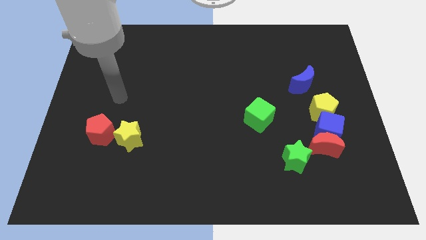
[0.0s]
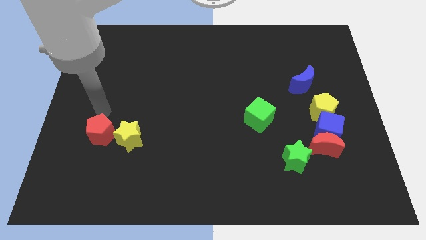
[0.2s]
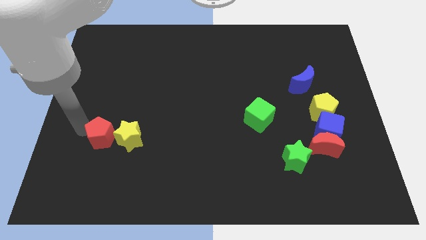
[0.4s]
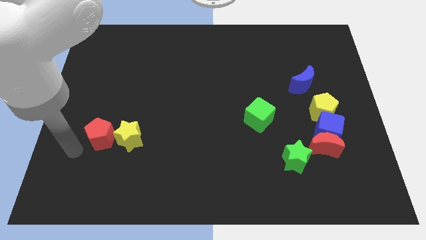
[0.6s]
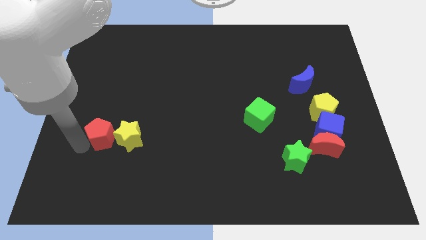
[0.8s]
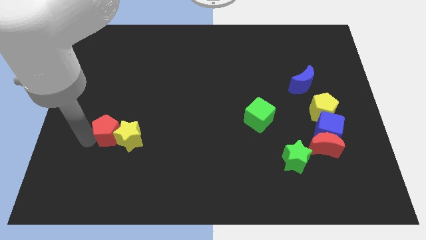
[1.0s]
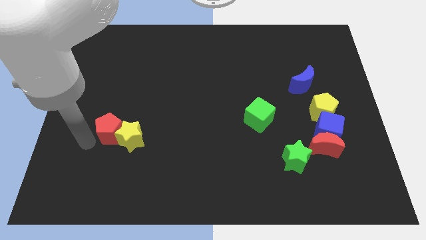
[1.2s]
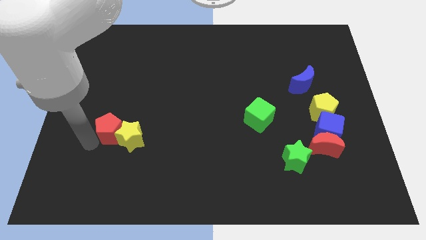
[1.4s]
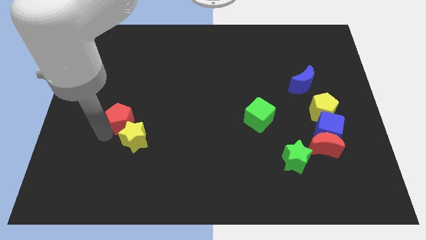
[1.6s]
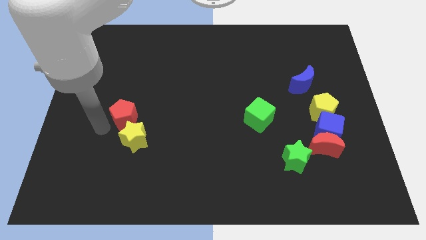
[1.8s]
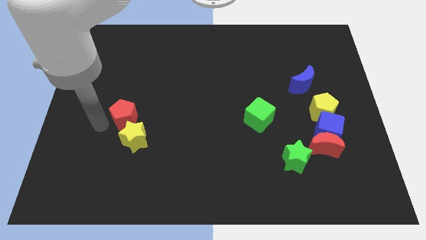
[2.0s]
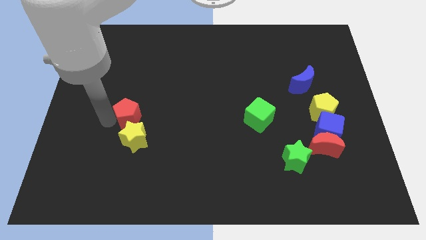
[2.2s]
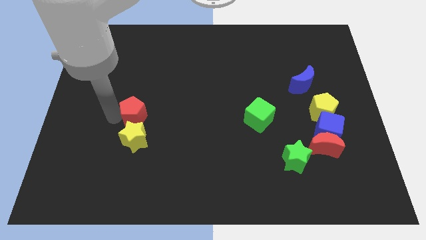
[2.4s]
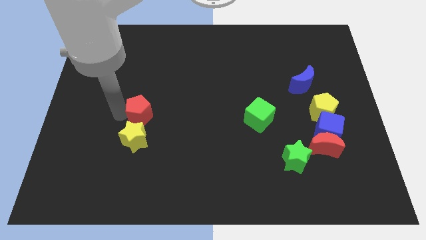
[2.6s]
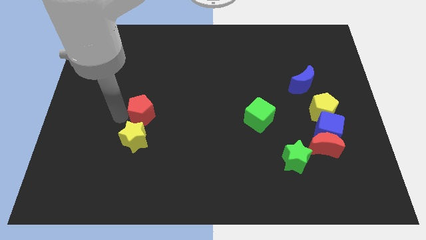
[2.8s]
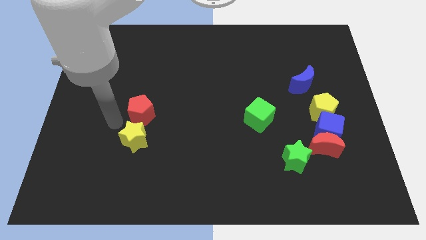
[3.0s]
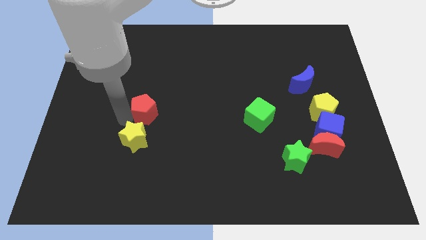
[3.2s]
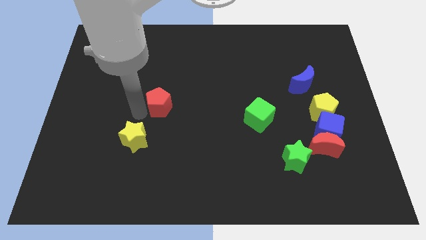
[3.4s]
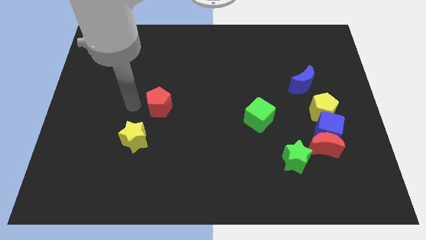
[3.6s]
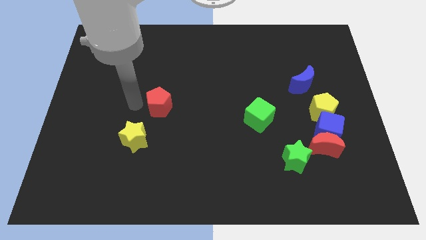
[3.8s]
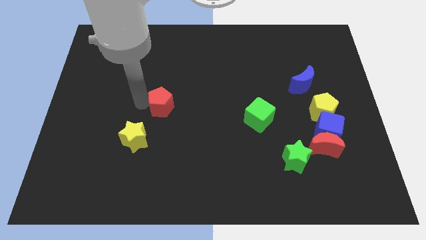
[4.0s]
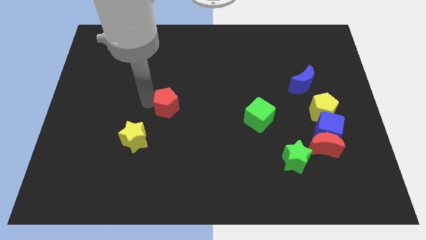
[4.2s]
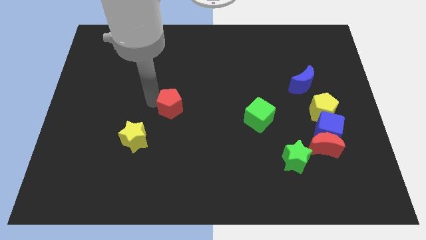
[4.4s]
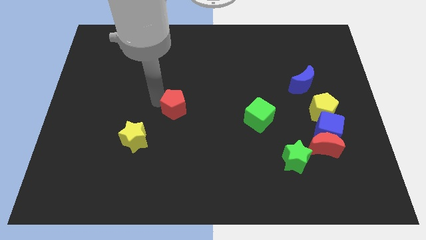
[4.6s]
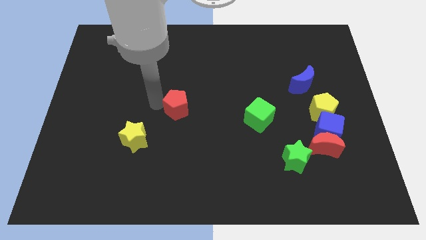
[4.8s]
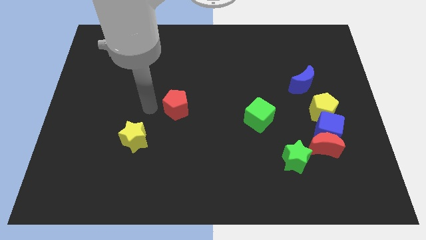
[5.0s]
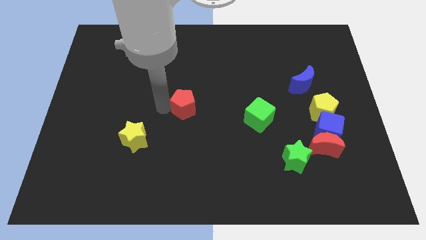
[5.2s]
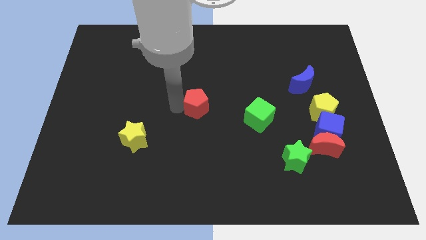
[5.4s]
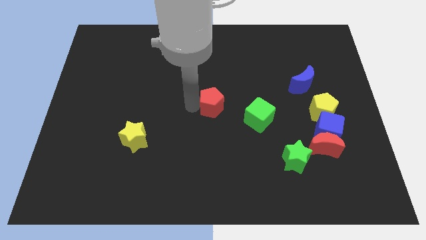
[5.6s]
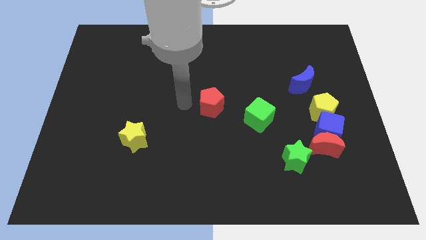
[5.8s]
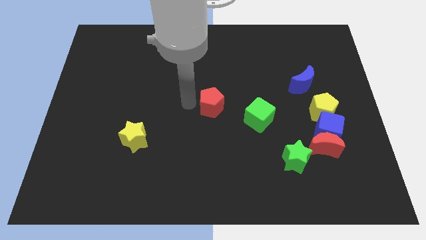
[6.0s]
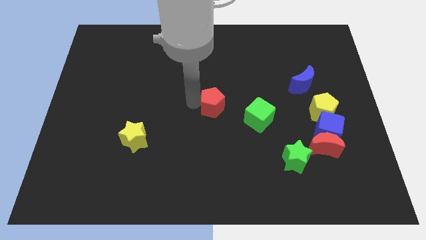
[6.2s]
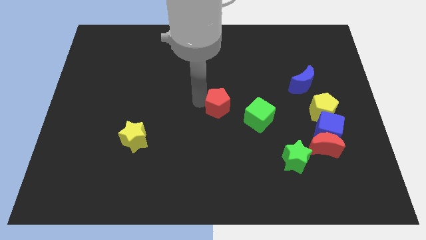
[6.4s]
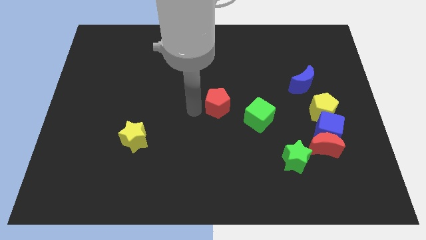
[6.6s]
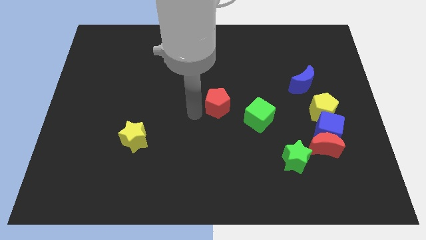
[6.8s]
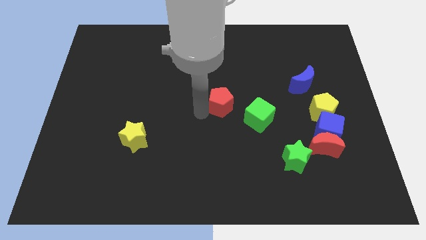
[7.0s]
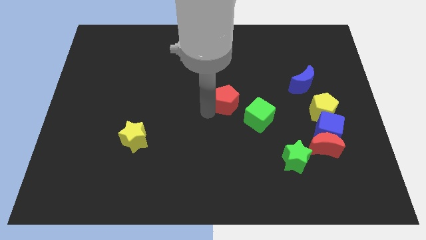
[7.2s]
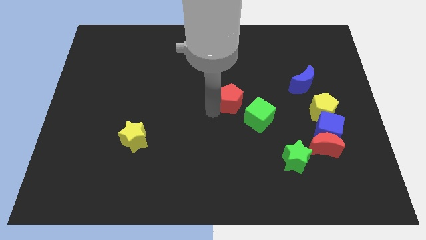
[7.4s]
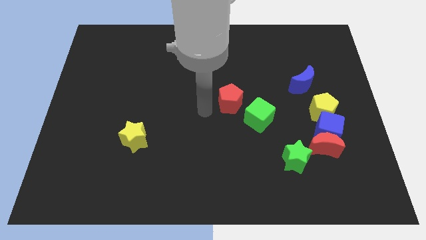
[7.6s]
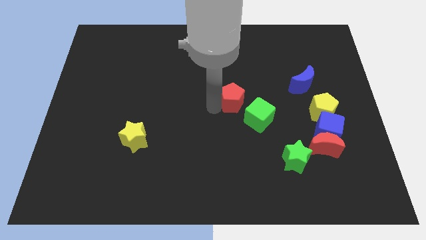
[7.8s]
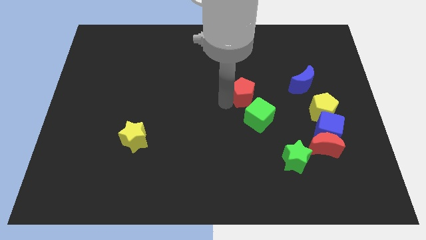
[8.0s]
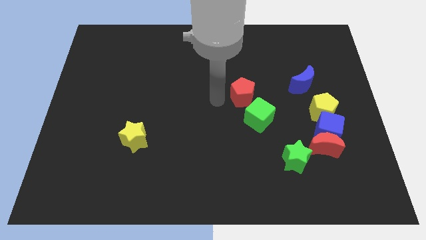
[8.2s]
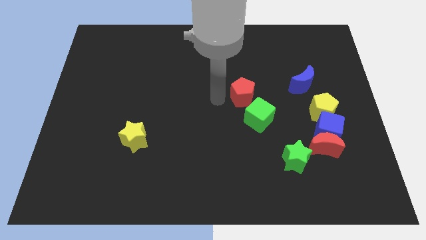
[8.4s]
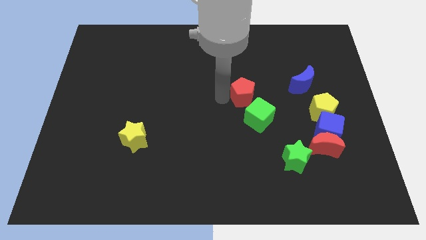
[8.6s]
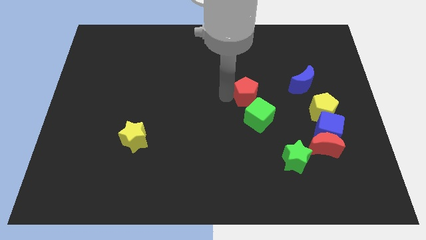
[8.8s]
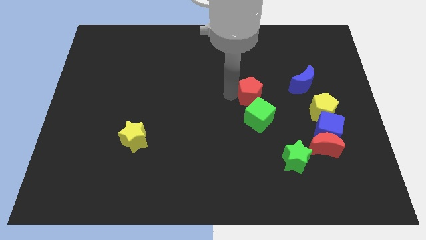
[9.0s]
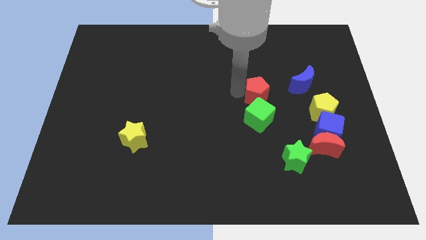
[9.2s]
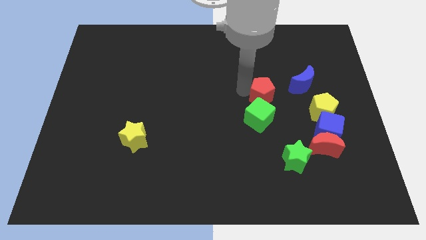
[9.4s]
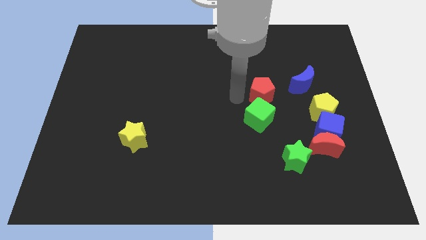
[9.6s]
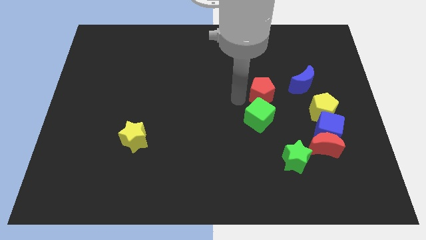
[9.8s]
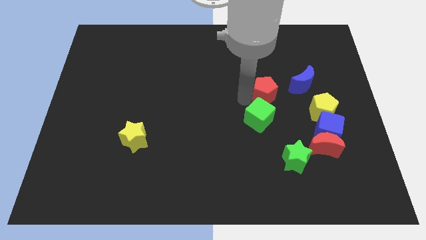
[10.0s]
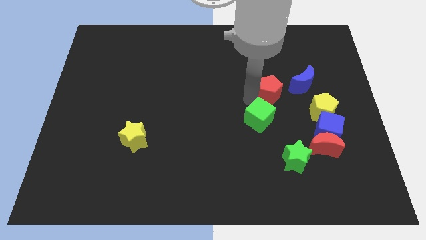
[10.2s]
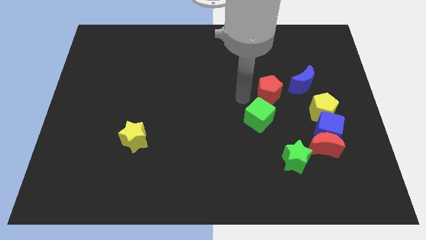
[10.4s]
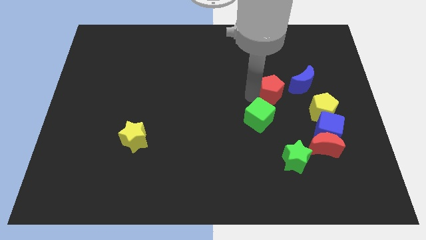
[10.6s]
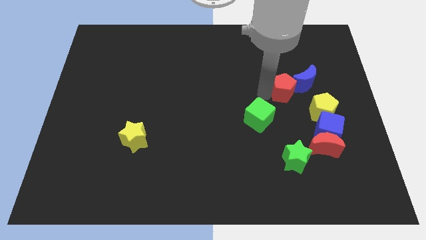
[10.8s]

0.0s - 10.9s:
push the red pentagon close to the blue moon
